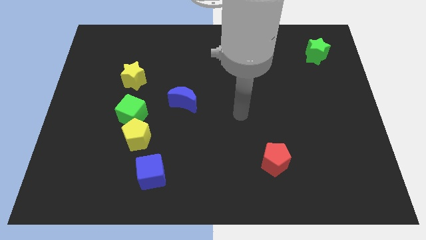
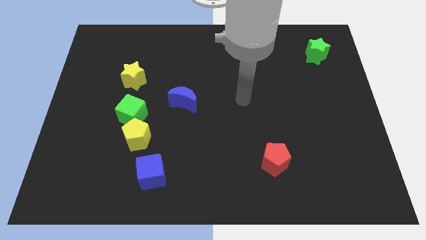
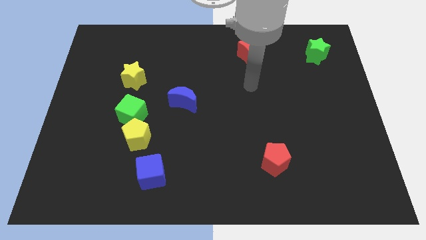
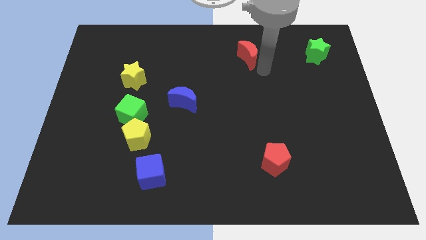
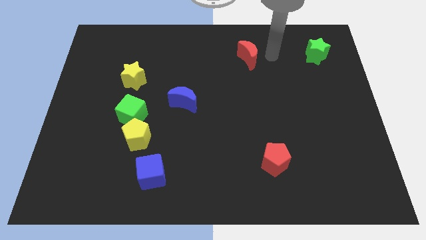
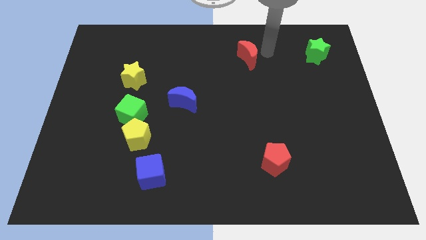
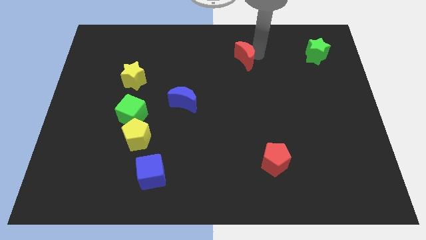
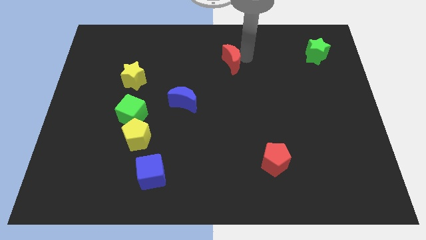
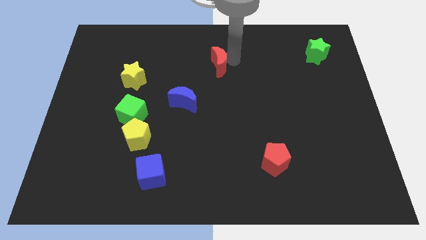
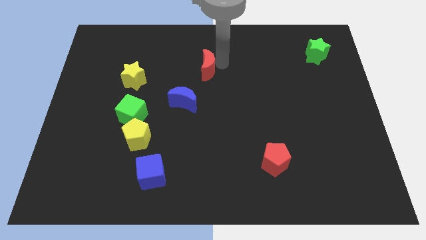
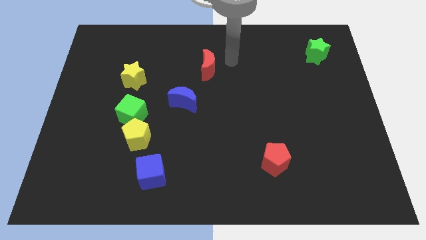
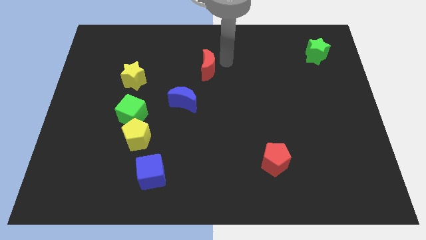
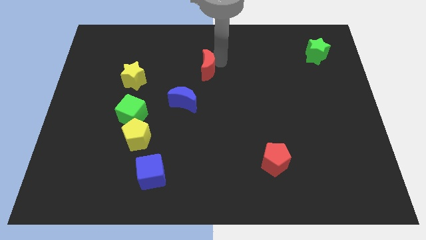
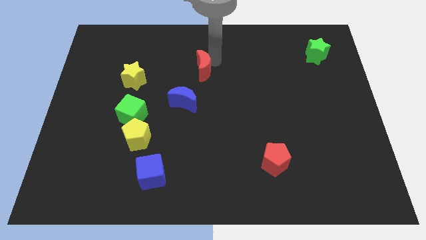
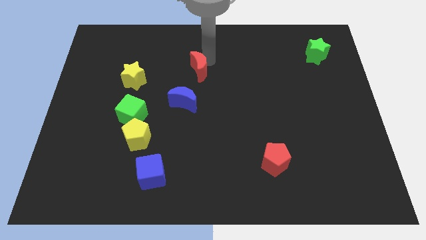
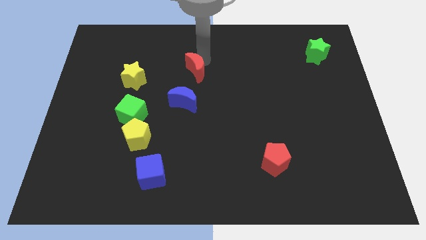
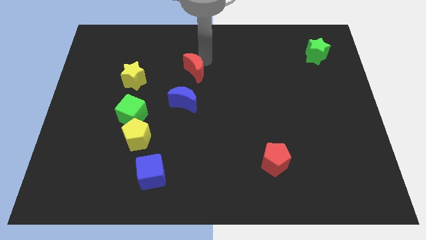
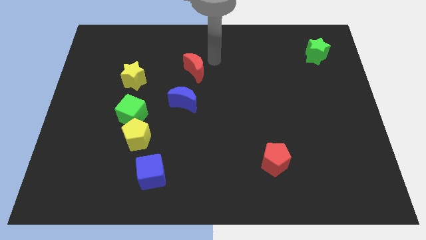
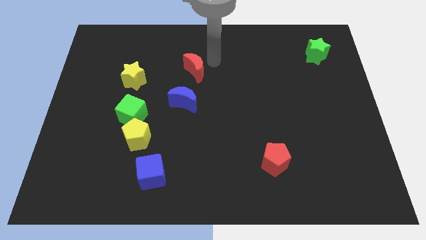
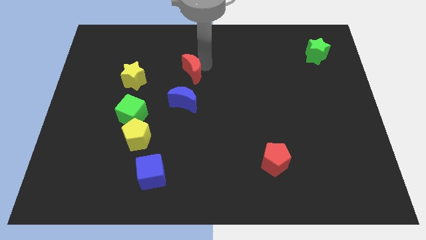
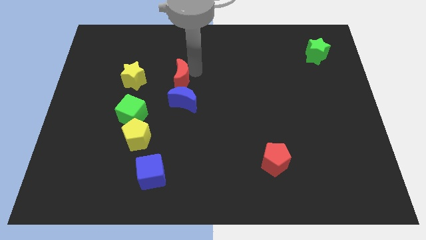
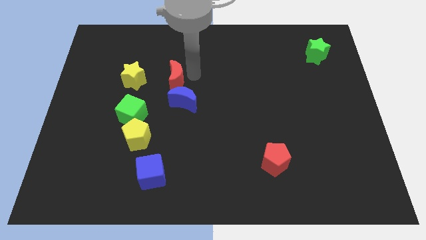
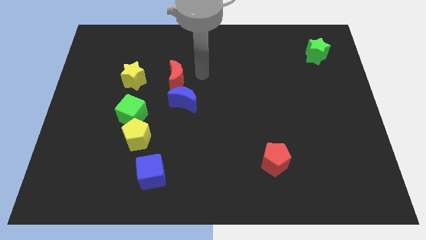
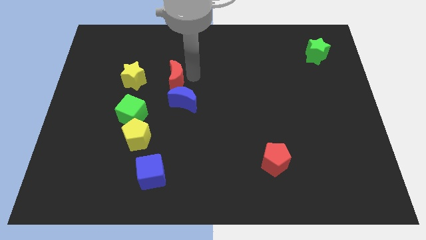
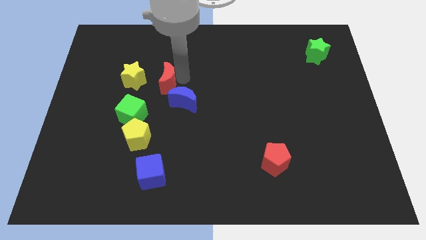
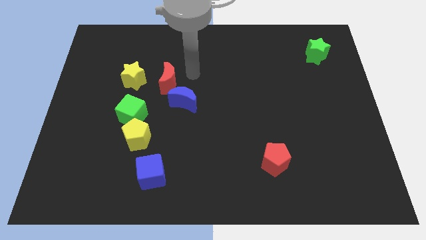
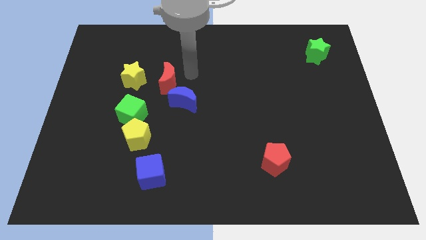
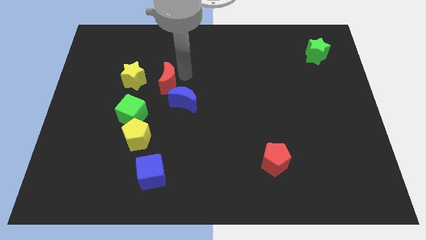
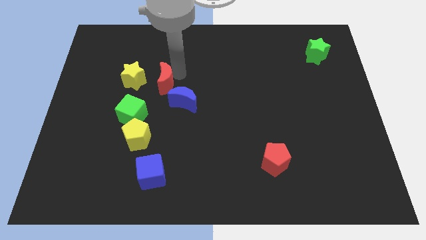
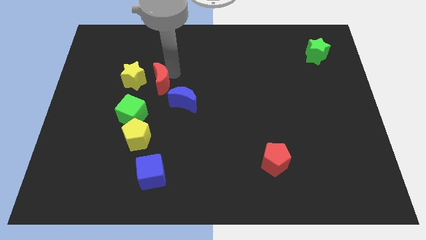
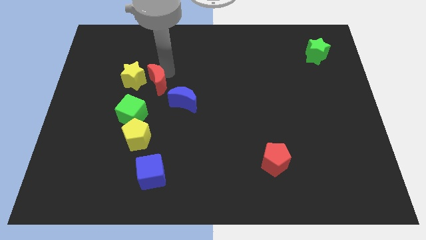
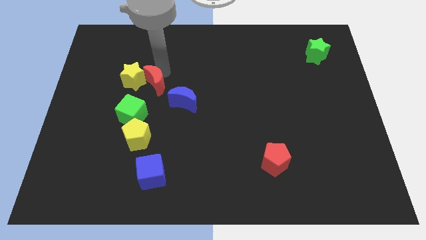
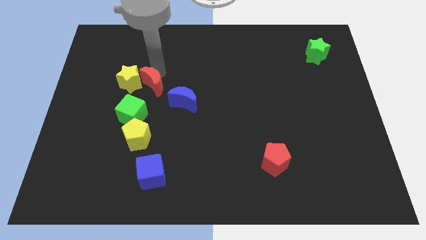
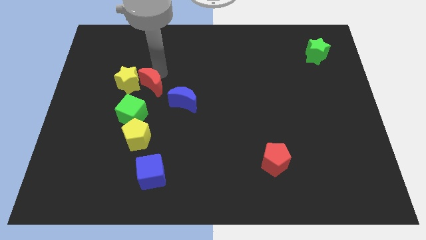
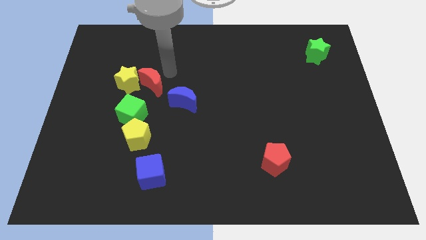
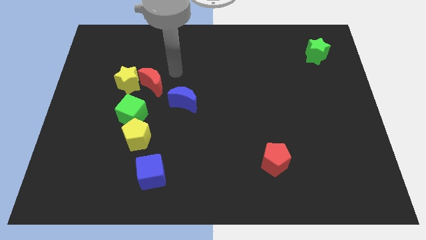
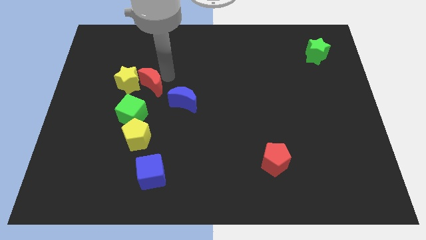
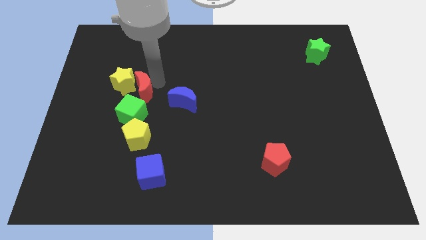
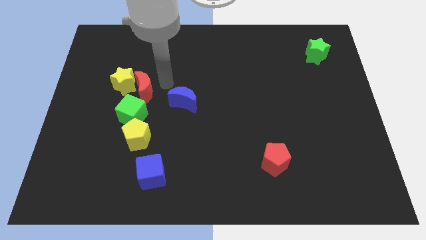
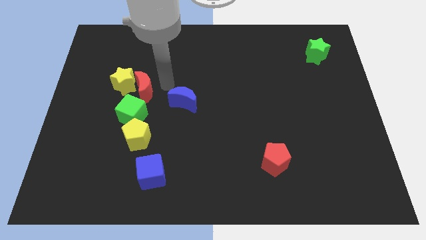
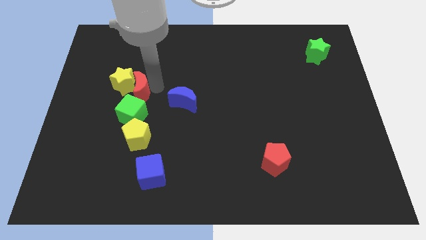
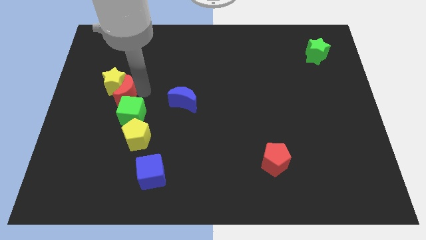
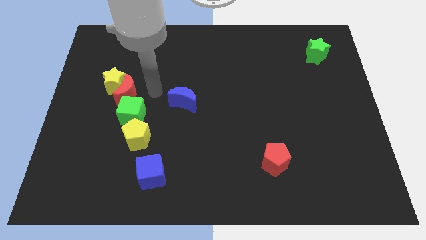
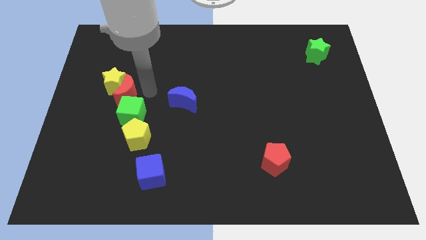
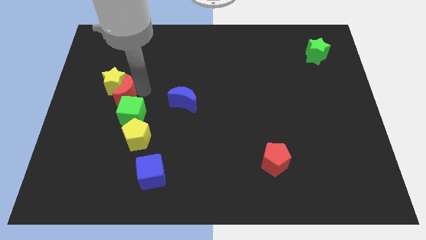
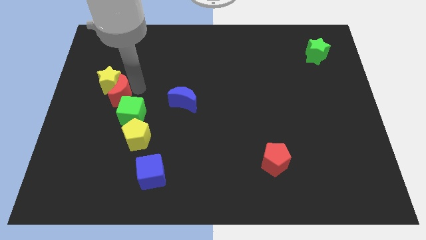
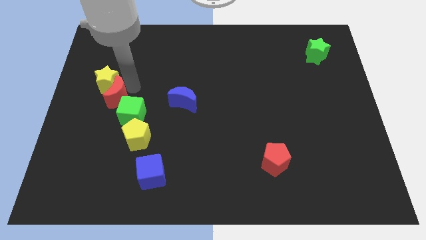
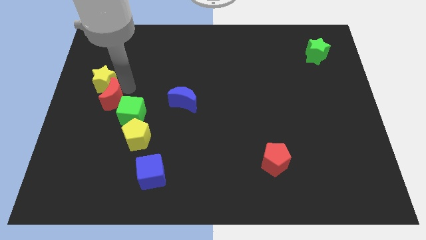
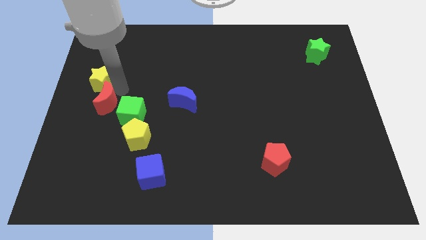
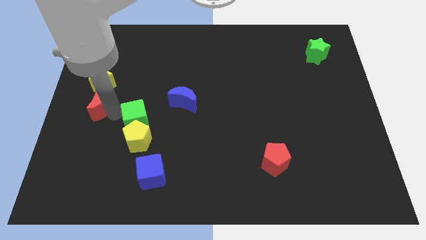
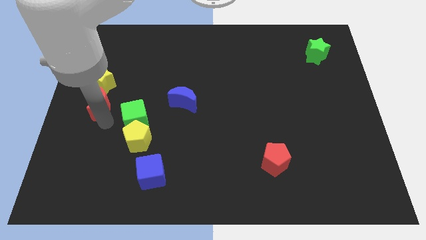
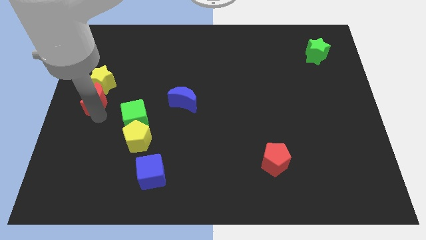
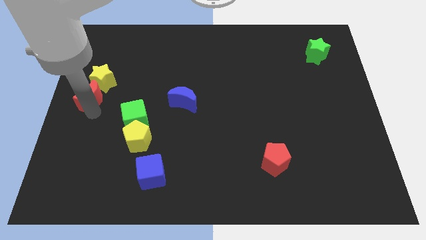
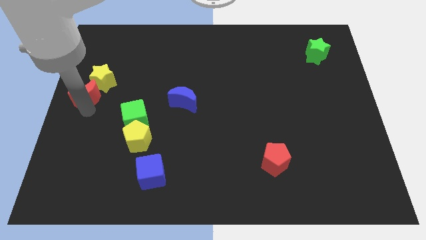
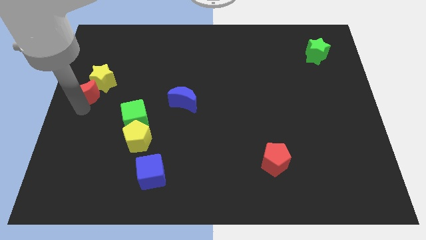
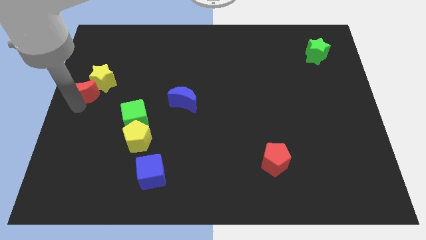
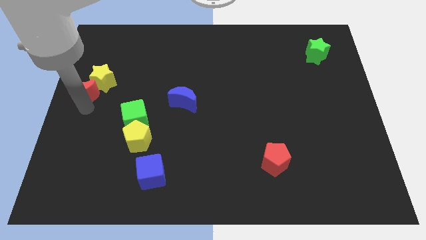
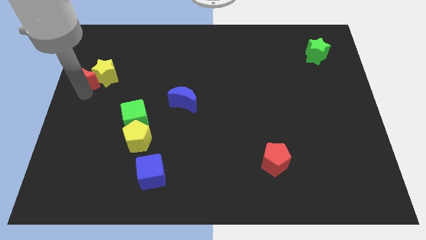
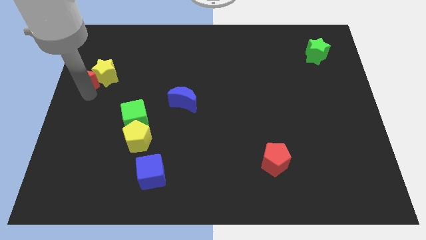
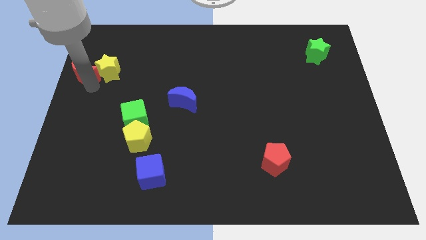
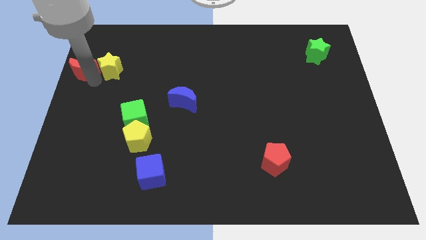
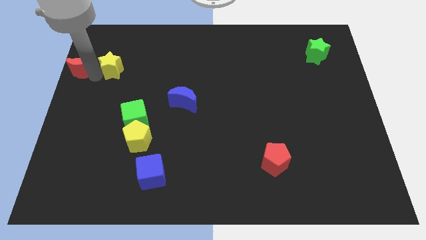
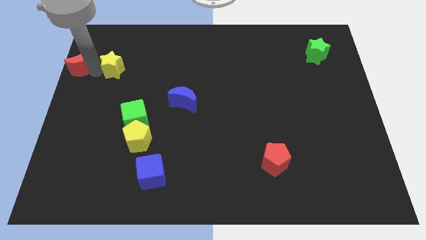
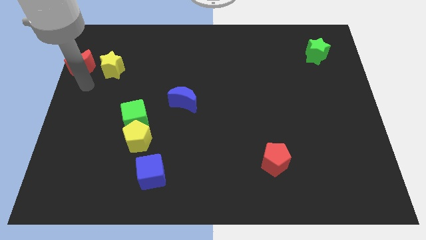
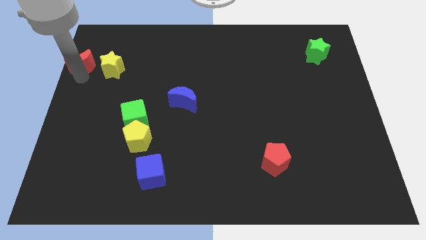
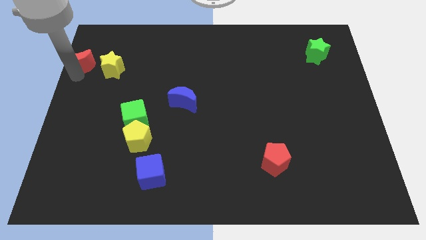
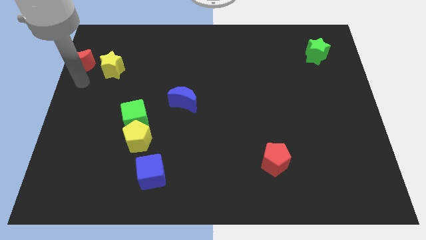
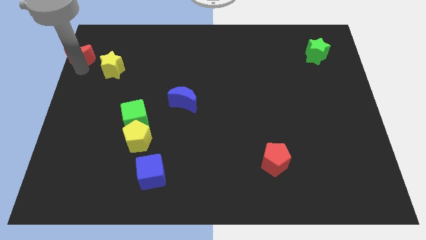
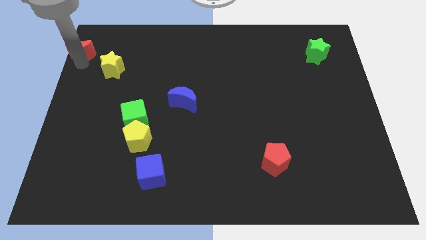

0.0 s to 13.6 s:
put the red moon to the top left
